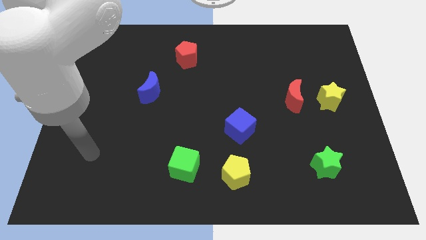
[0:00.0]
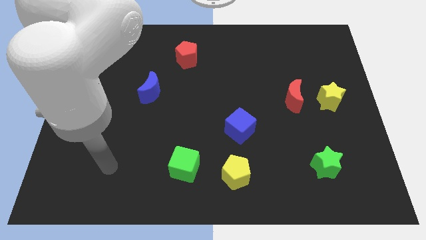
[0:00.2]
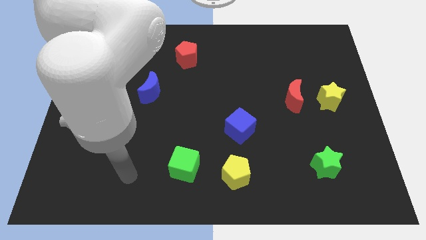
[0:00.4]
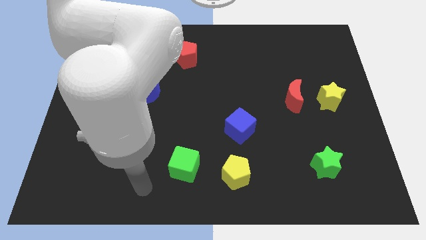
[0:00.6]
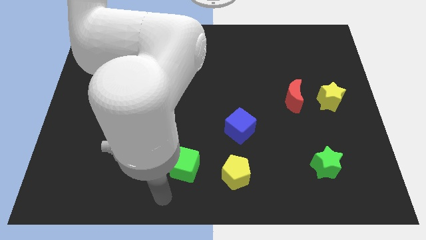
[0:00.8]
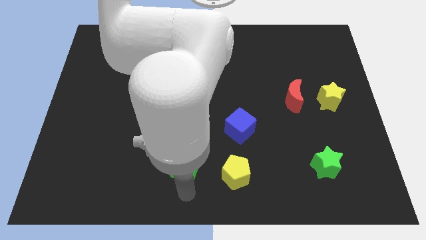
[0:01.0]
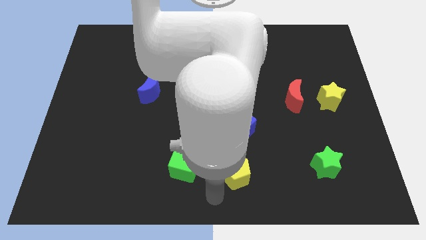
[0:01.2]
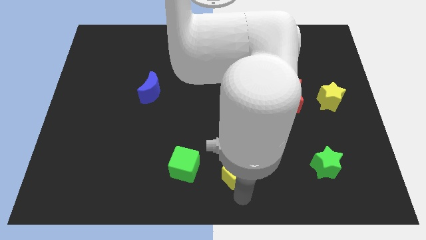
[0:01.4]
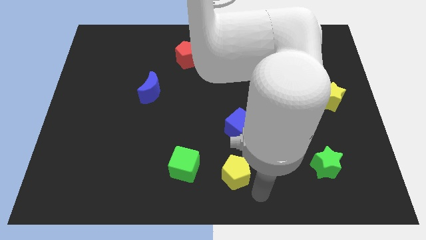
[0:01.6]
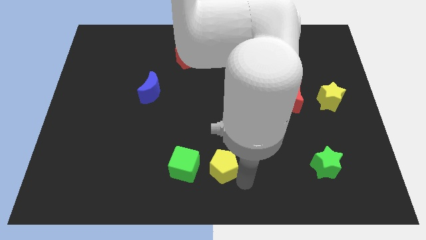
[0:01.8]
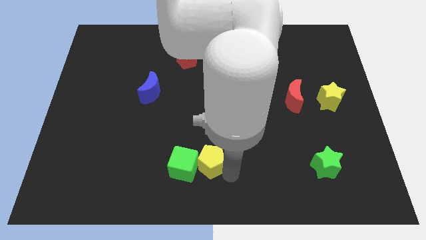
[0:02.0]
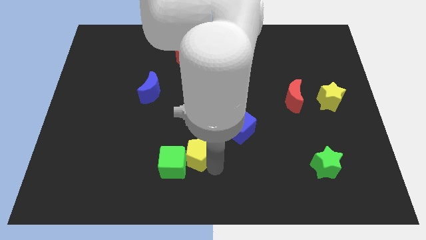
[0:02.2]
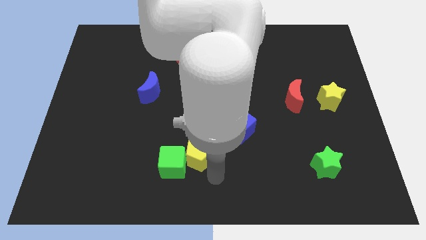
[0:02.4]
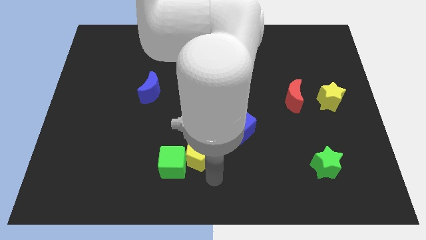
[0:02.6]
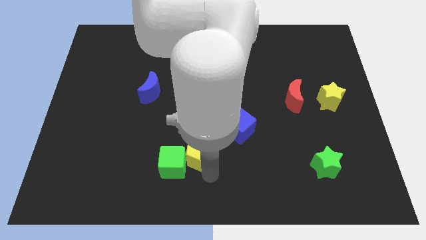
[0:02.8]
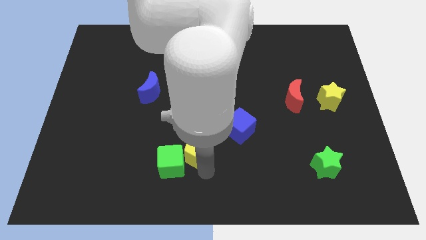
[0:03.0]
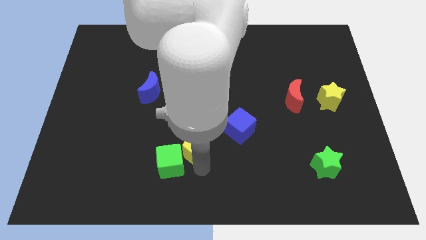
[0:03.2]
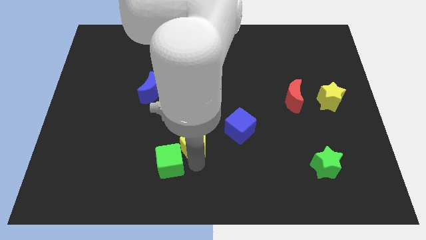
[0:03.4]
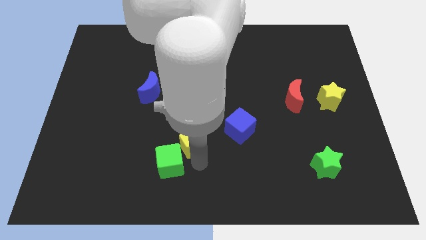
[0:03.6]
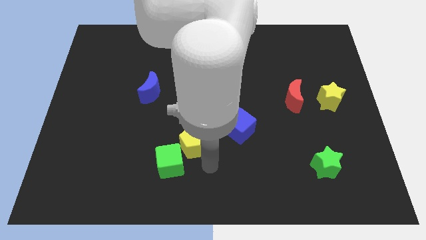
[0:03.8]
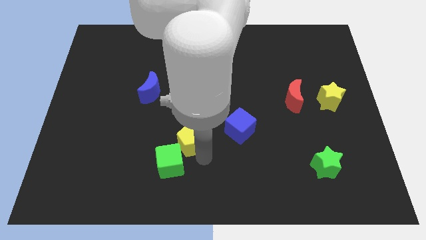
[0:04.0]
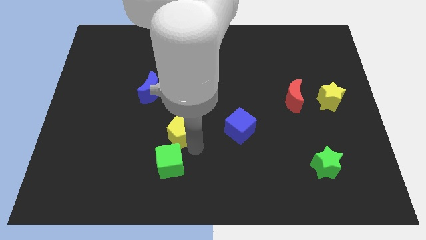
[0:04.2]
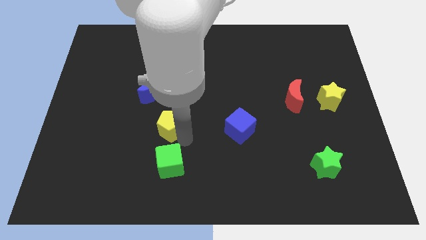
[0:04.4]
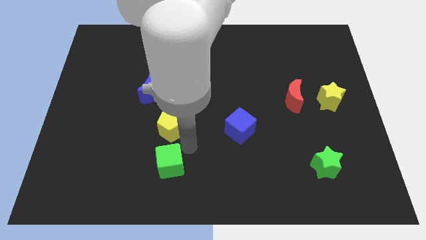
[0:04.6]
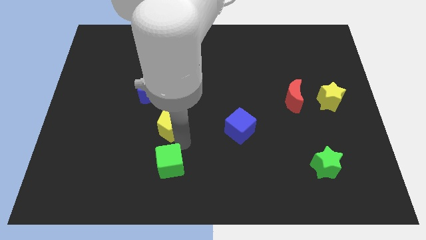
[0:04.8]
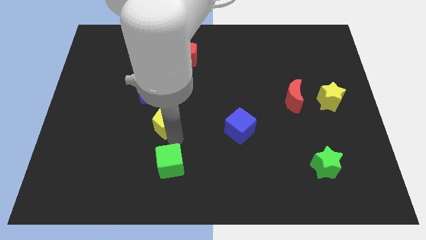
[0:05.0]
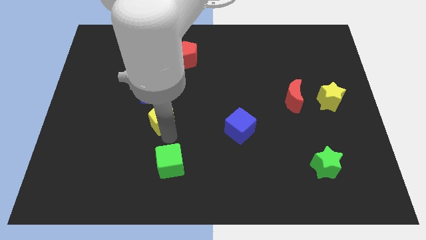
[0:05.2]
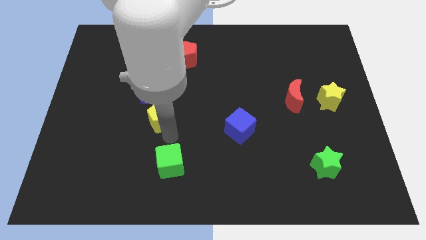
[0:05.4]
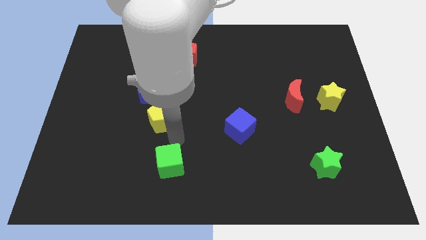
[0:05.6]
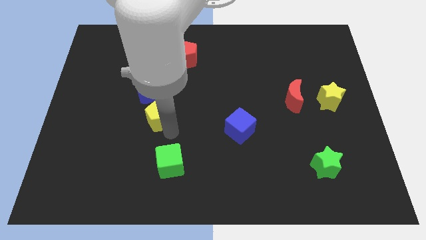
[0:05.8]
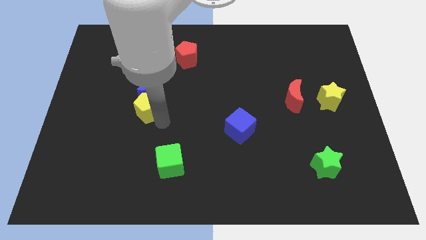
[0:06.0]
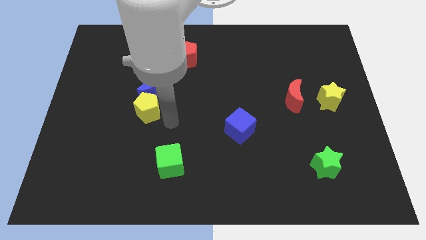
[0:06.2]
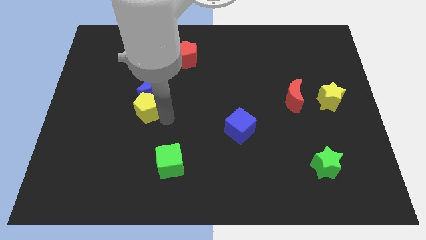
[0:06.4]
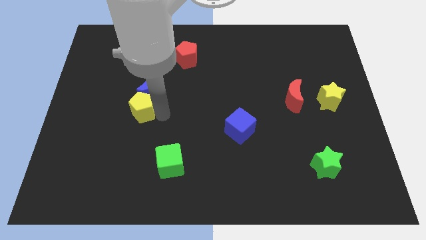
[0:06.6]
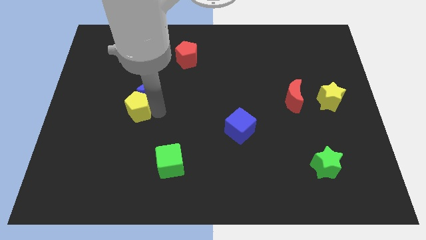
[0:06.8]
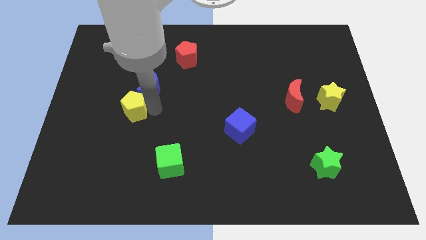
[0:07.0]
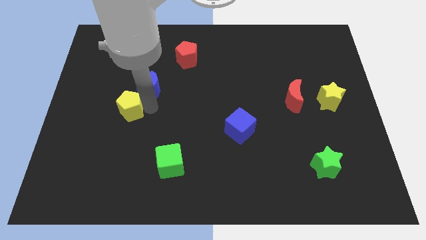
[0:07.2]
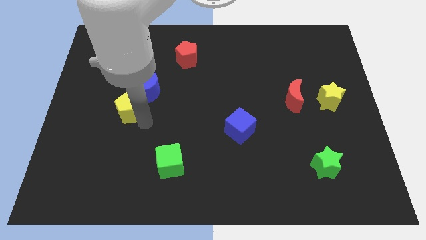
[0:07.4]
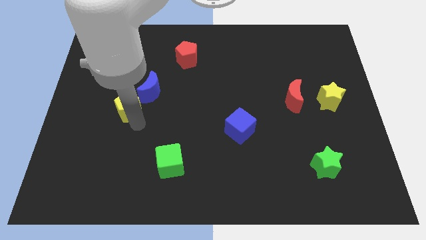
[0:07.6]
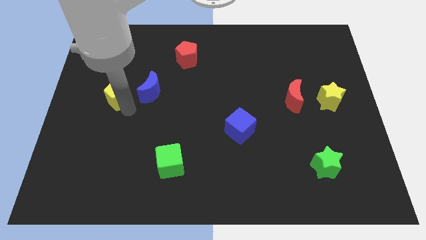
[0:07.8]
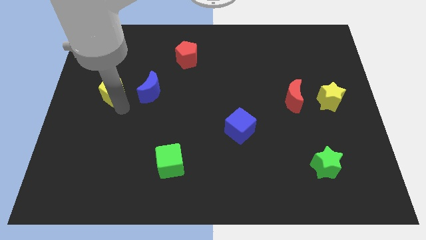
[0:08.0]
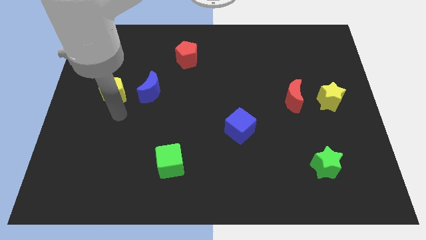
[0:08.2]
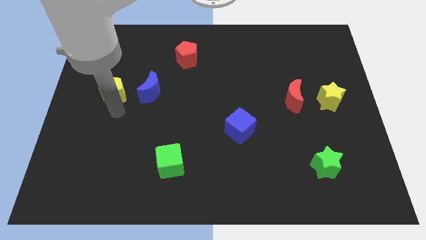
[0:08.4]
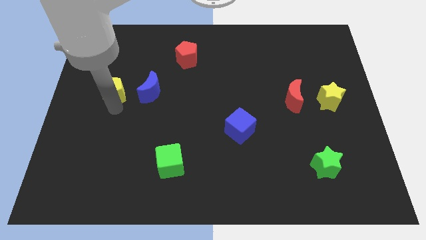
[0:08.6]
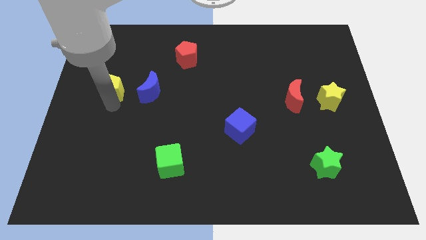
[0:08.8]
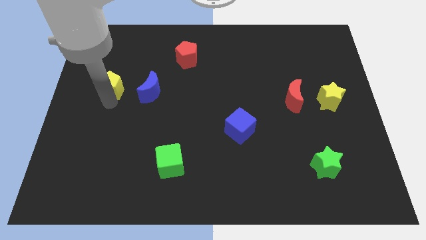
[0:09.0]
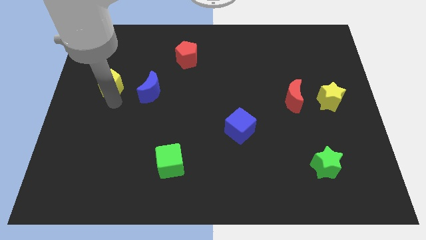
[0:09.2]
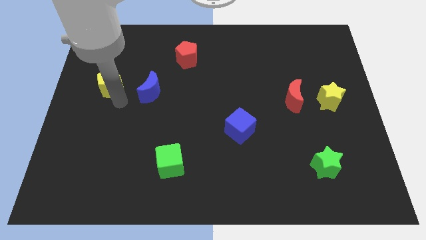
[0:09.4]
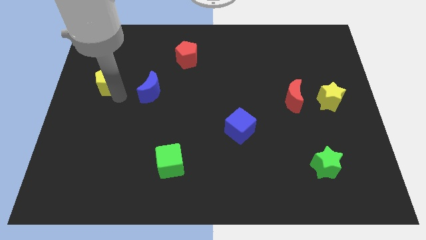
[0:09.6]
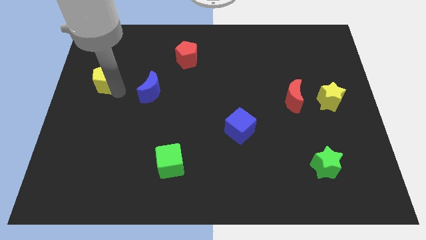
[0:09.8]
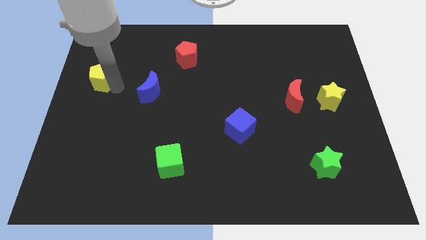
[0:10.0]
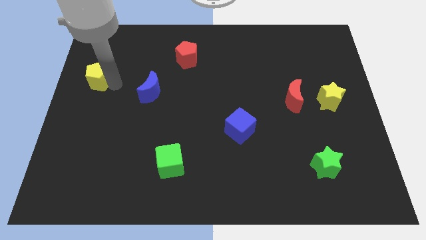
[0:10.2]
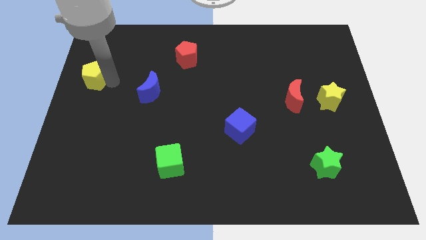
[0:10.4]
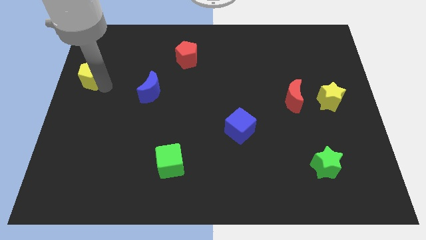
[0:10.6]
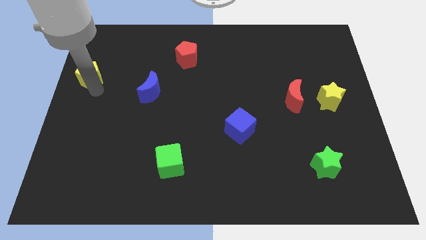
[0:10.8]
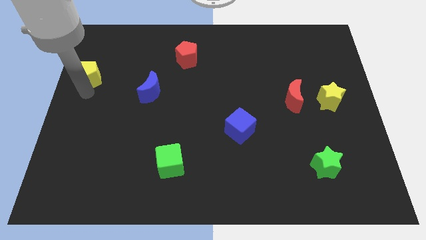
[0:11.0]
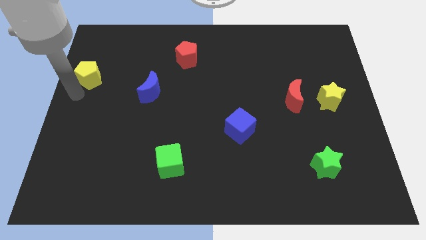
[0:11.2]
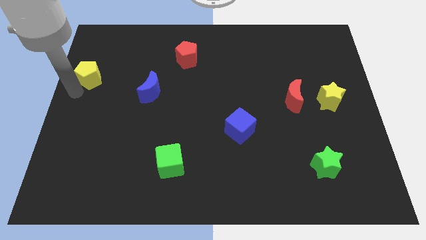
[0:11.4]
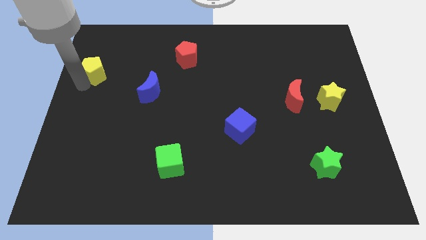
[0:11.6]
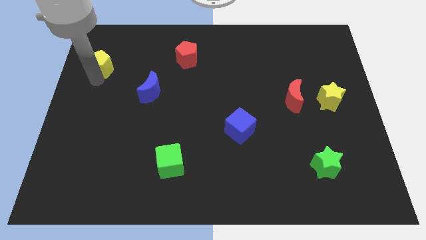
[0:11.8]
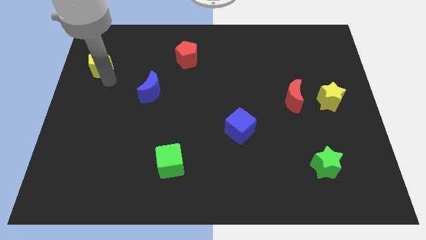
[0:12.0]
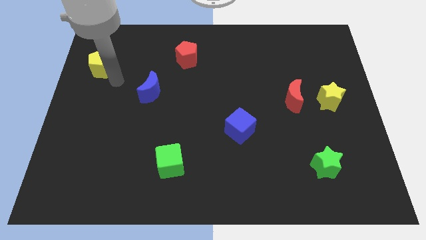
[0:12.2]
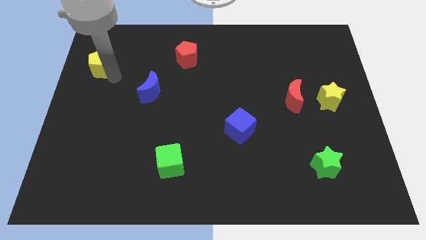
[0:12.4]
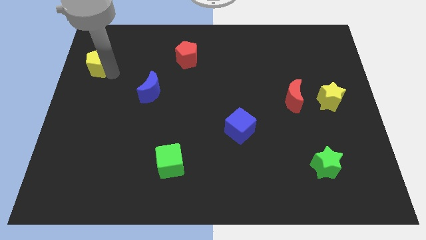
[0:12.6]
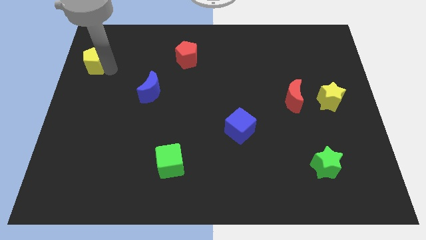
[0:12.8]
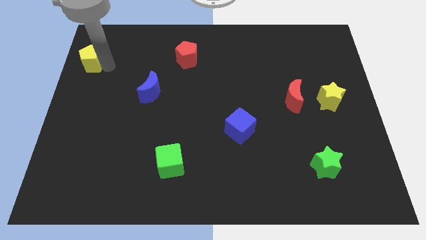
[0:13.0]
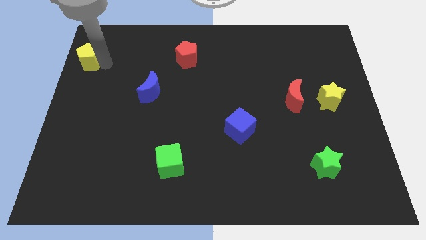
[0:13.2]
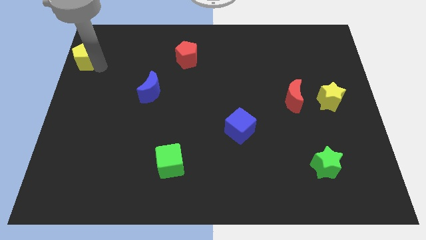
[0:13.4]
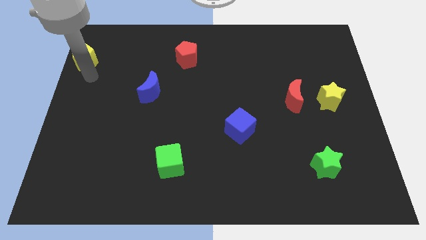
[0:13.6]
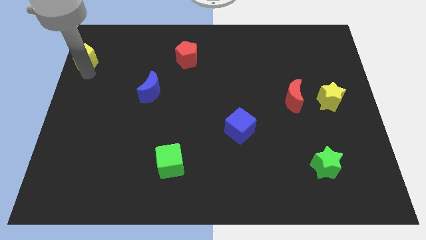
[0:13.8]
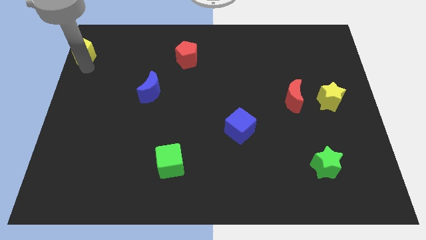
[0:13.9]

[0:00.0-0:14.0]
move the yellow pentagon to the top left
